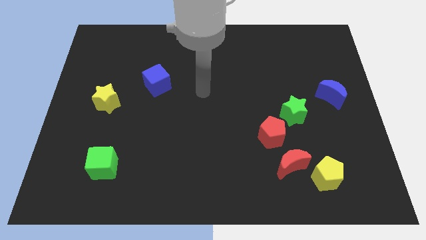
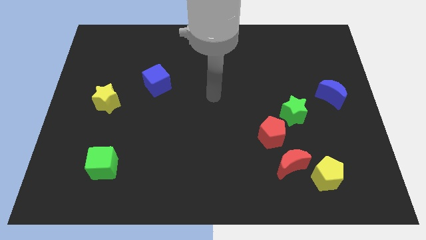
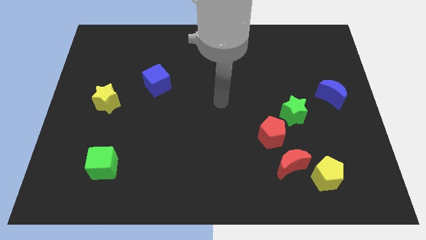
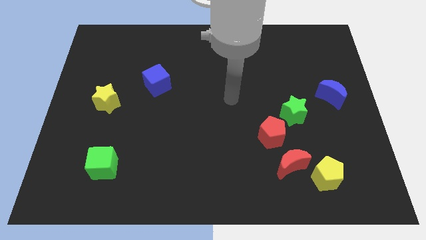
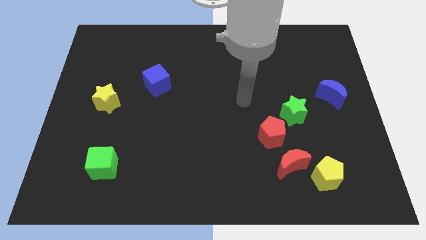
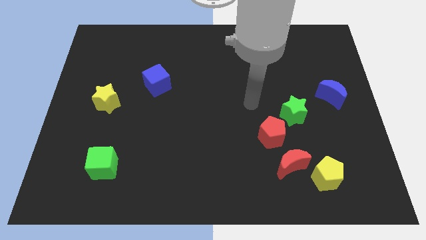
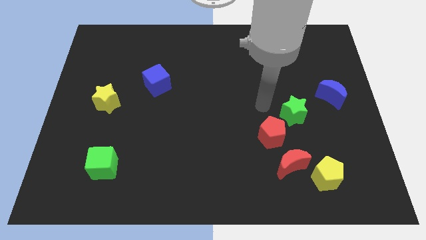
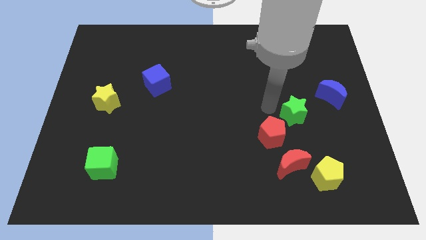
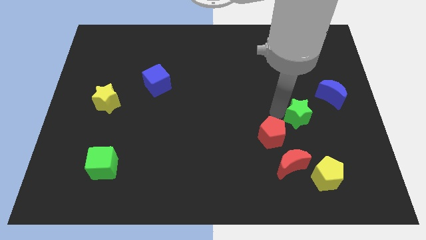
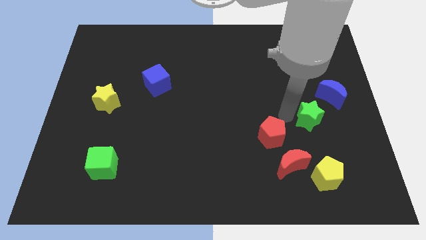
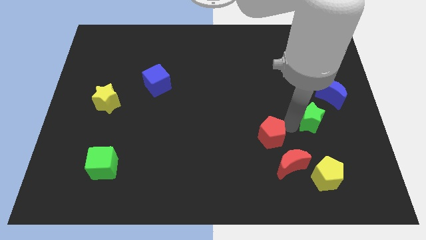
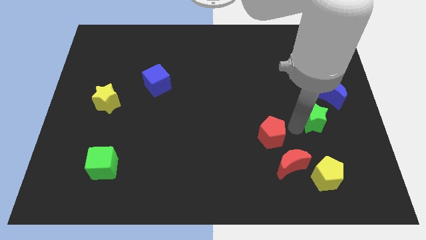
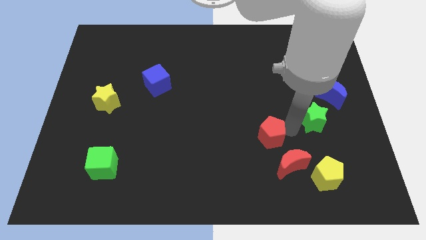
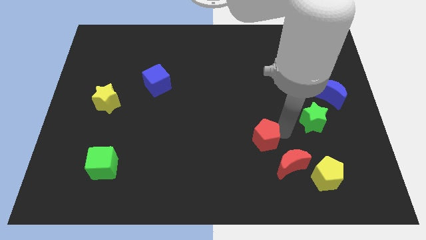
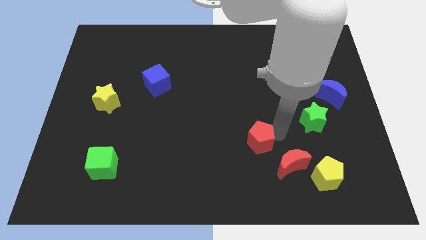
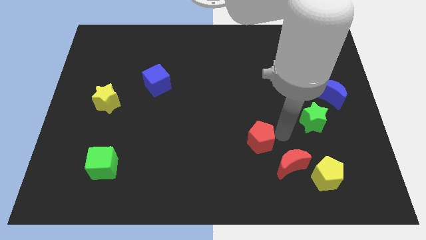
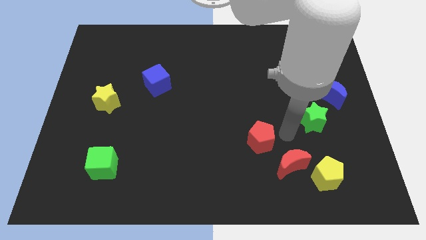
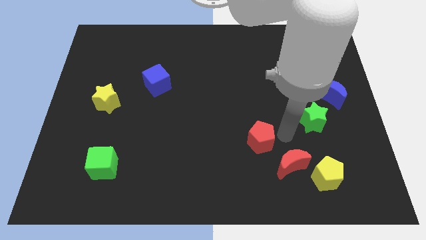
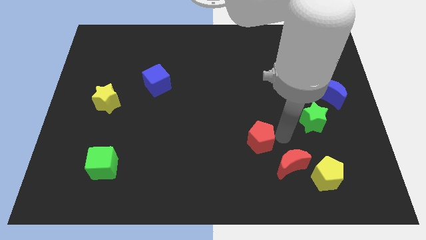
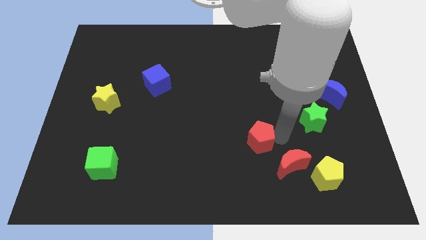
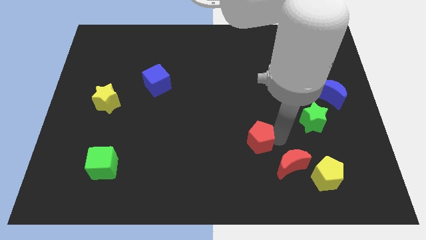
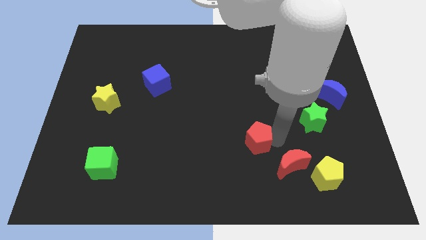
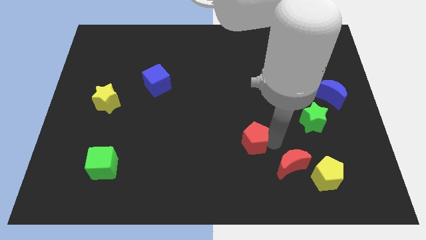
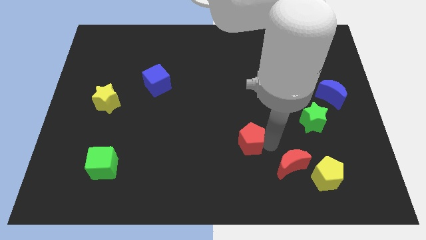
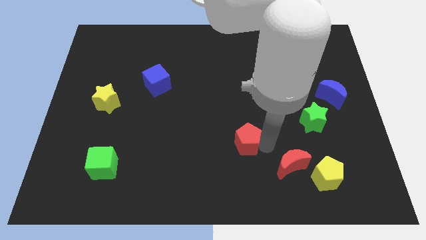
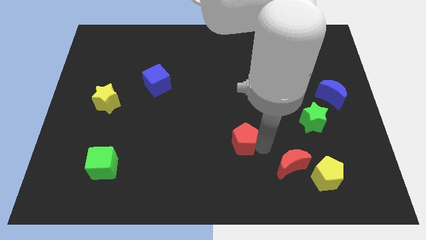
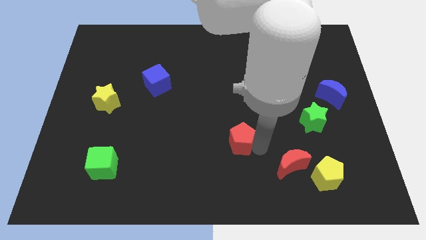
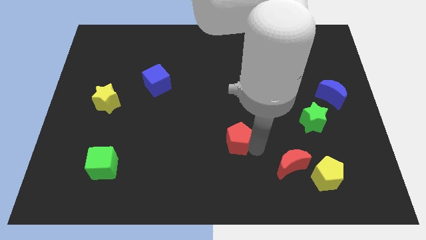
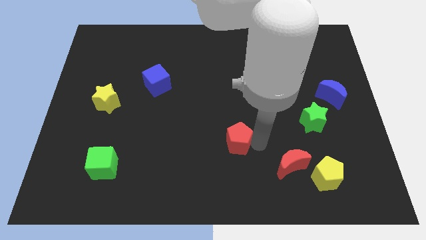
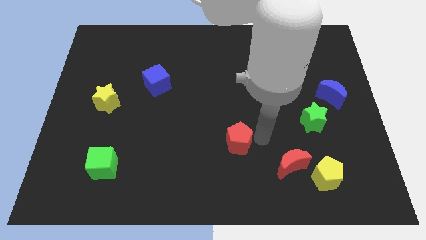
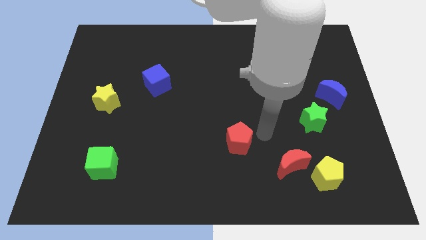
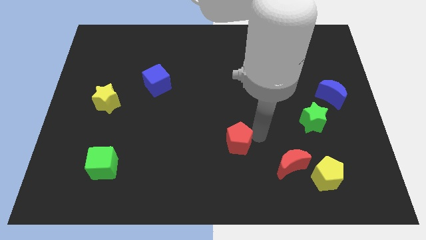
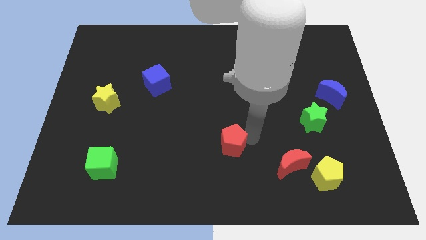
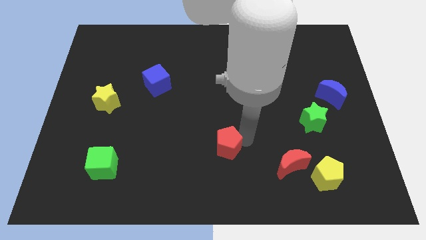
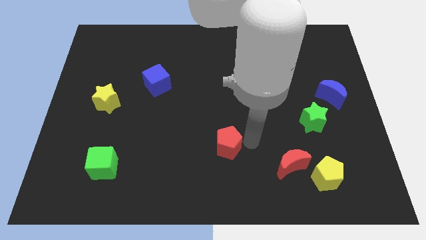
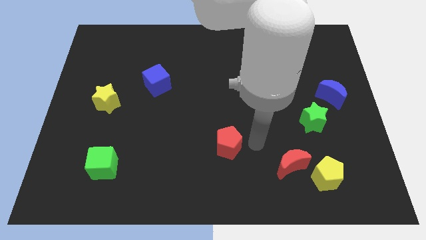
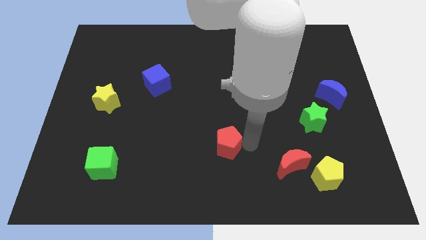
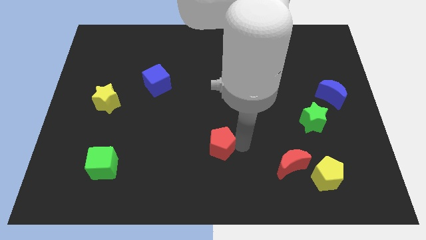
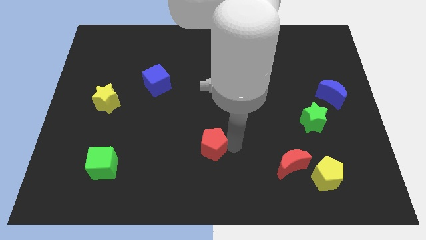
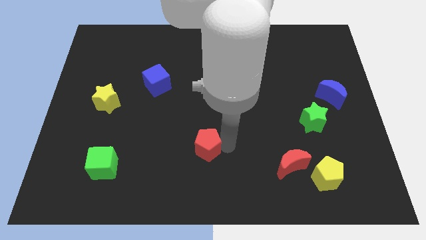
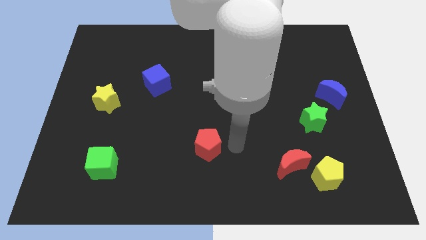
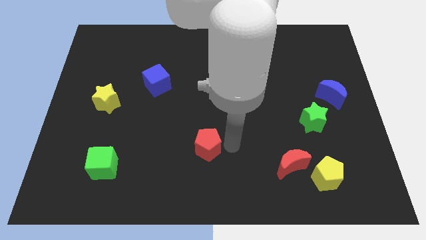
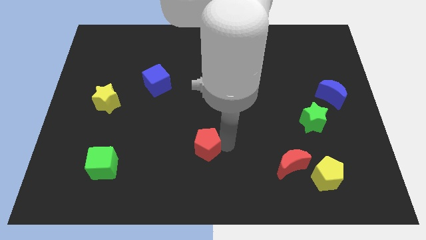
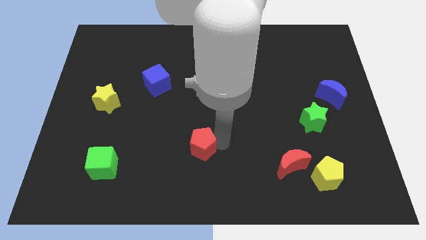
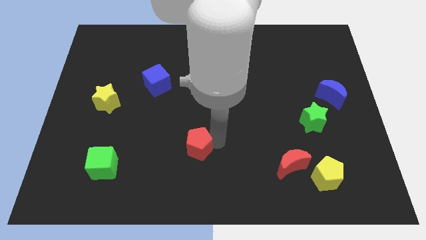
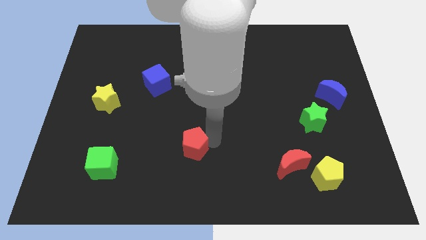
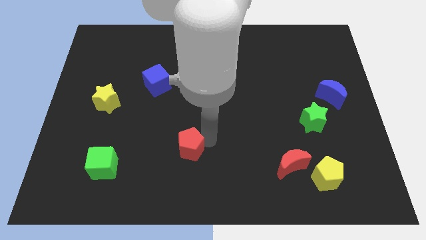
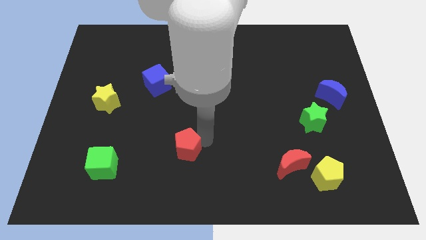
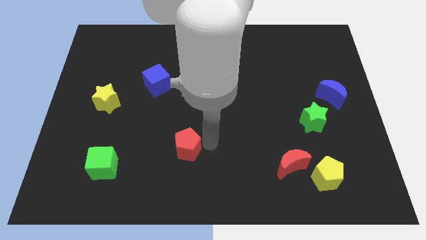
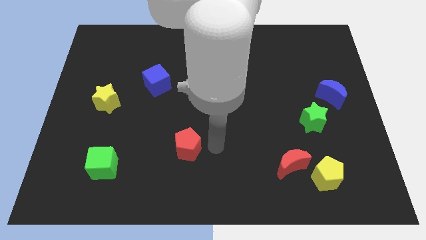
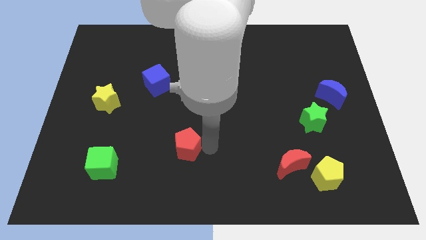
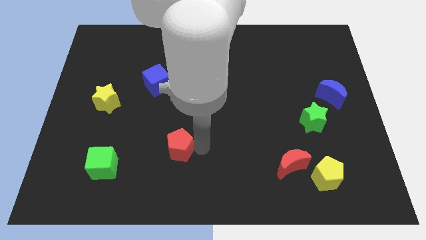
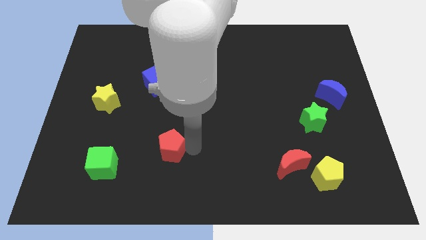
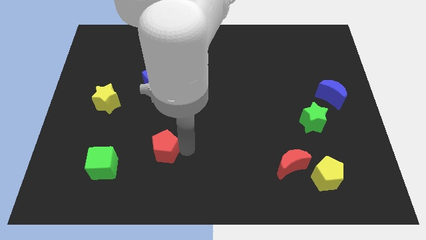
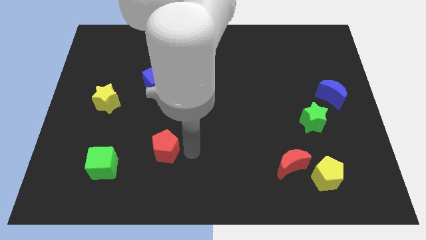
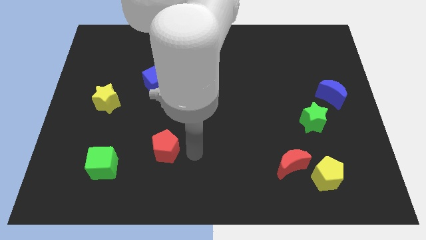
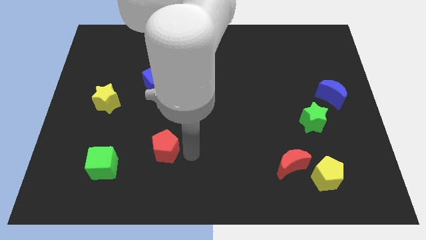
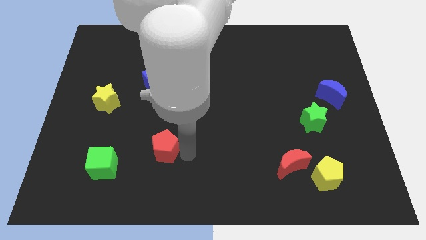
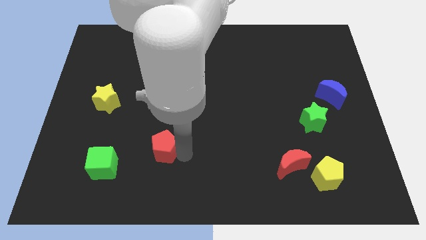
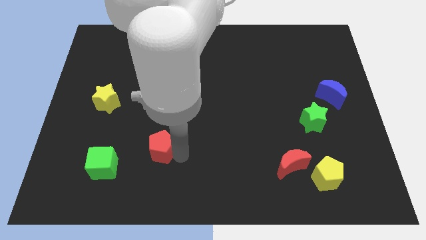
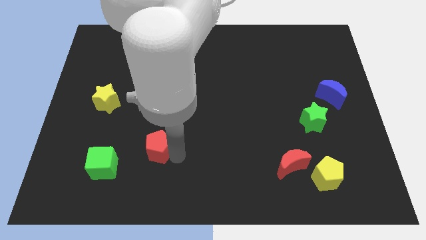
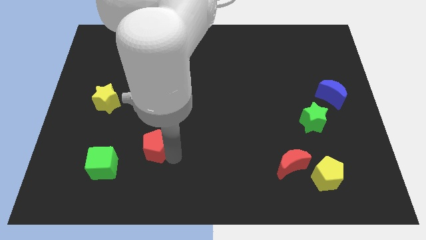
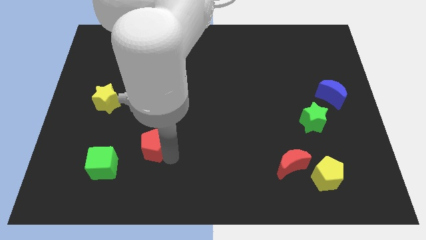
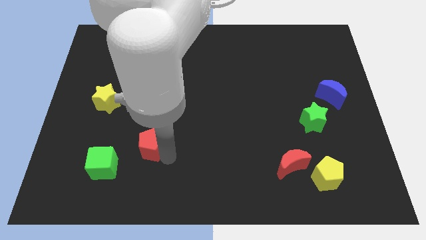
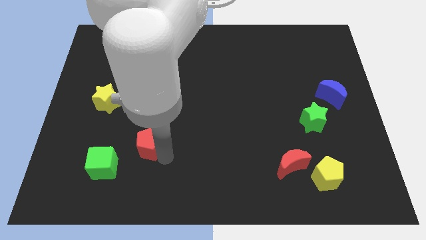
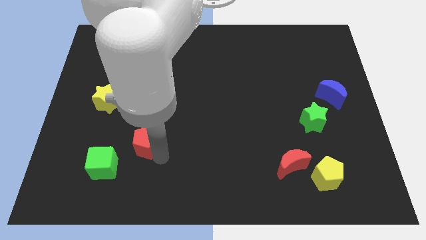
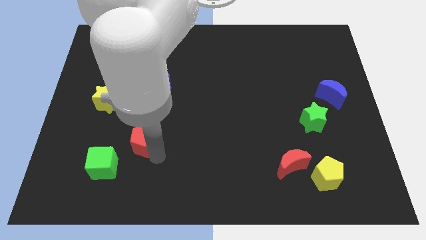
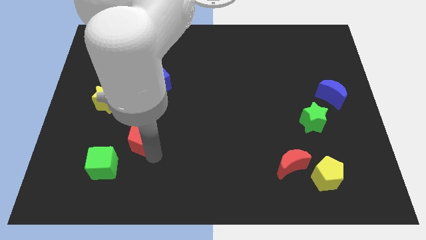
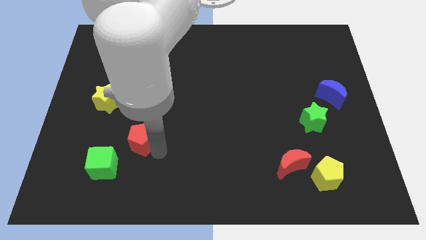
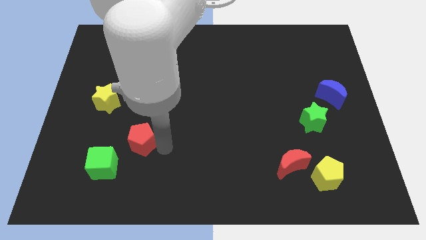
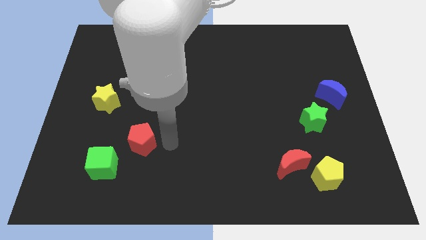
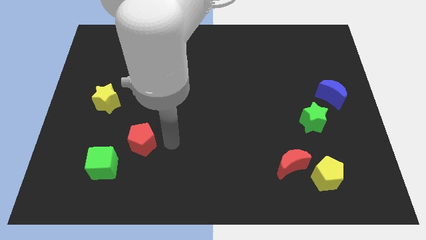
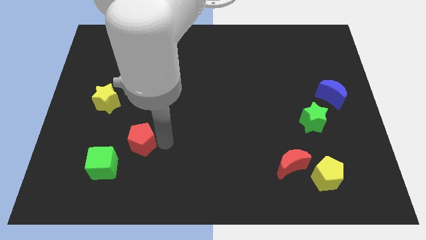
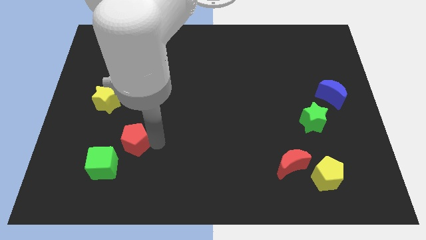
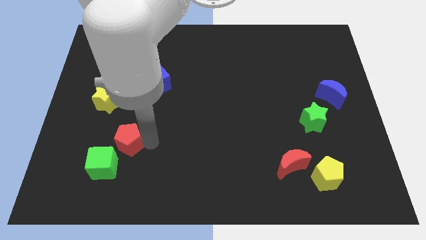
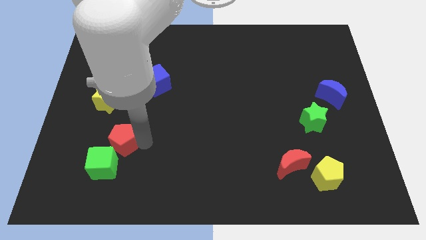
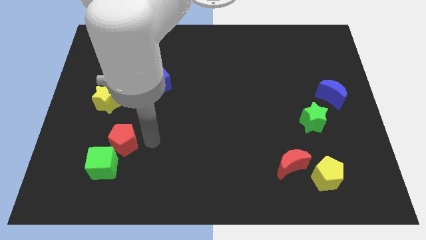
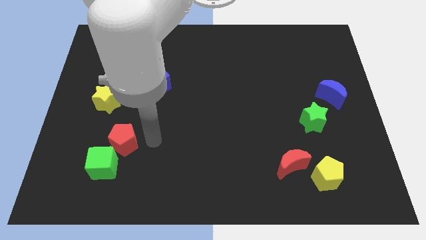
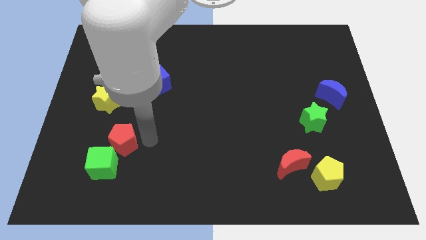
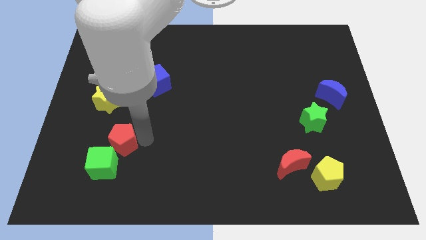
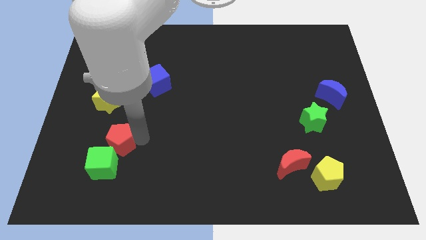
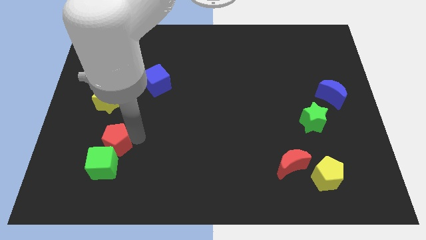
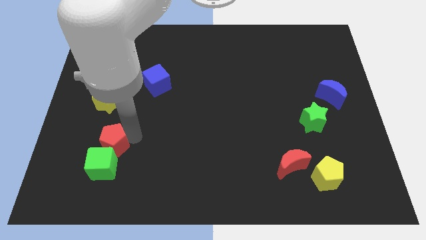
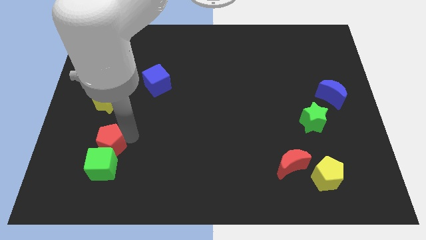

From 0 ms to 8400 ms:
push the red pentagon diagonally up and to the left of the green cube
